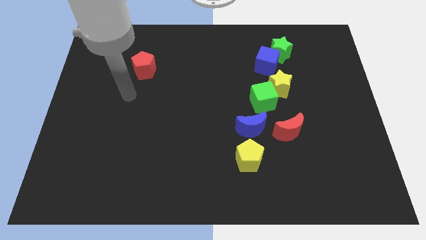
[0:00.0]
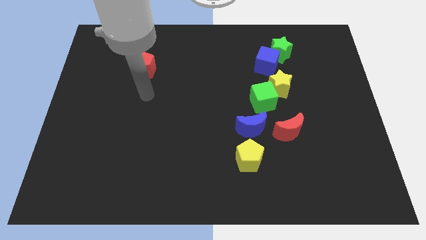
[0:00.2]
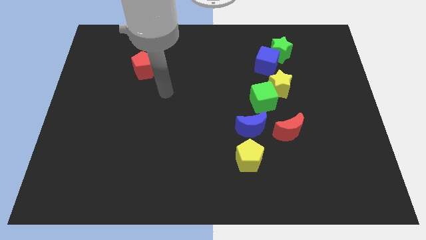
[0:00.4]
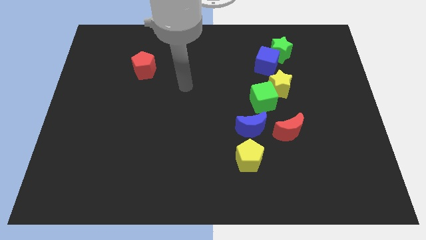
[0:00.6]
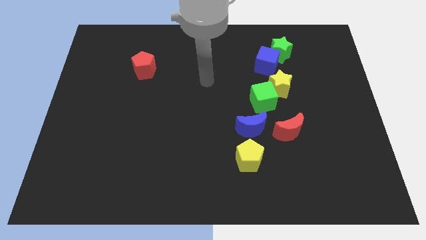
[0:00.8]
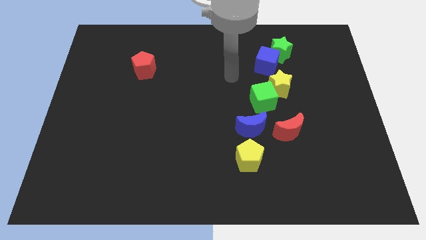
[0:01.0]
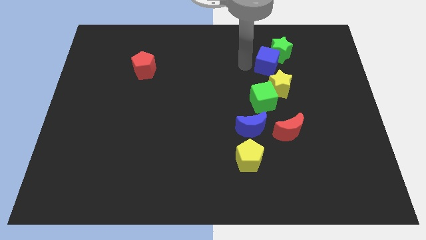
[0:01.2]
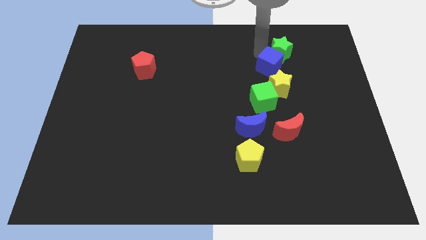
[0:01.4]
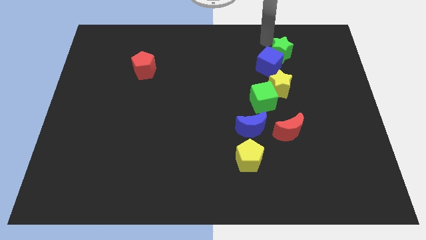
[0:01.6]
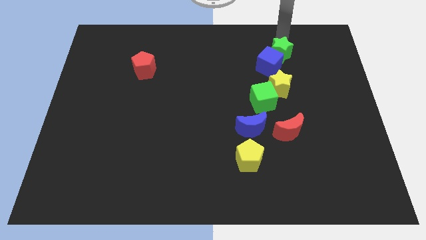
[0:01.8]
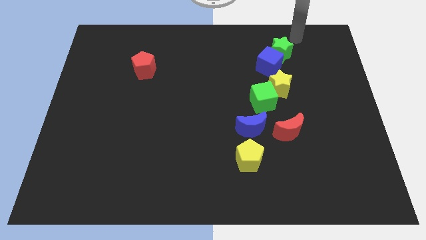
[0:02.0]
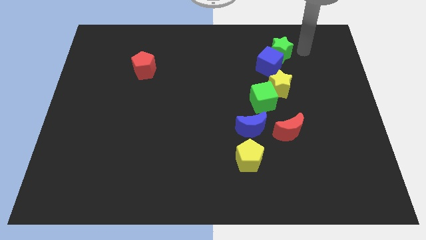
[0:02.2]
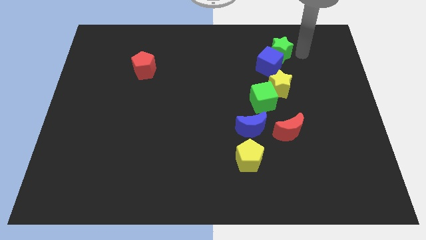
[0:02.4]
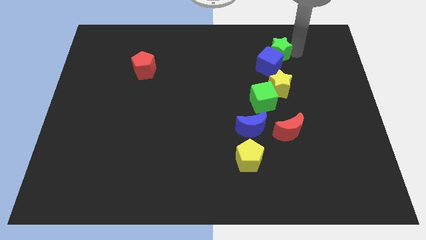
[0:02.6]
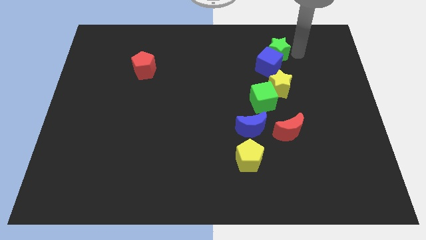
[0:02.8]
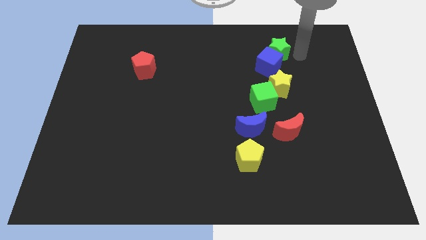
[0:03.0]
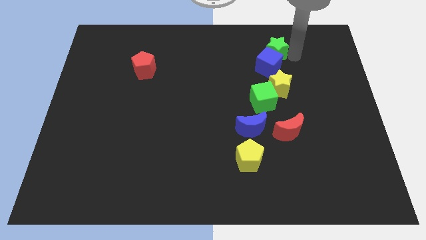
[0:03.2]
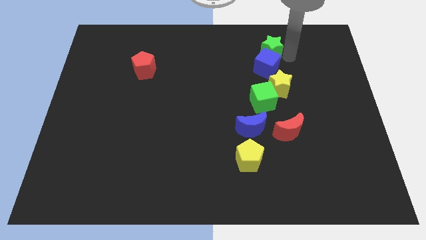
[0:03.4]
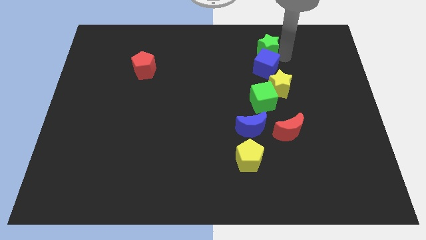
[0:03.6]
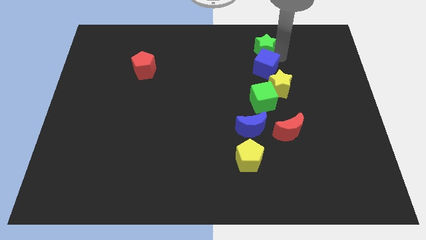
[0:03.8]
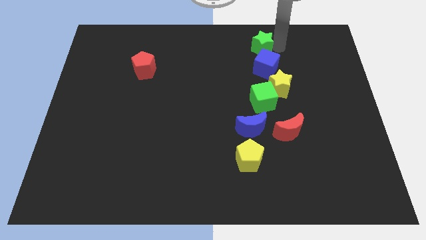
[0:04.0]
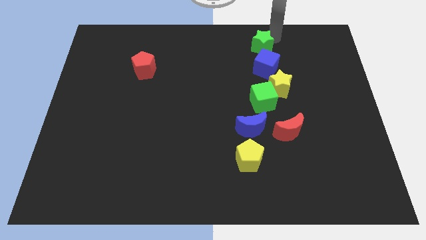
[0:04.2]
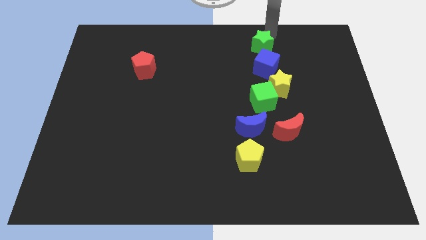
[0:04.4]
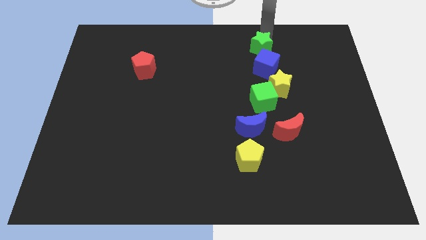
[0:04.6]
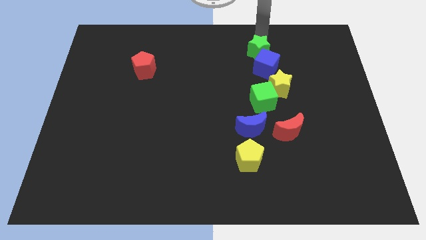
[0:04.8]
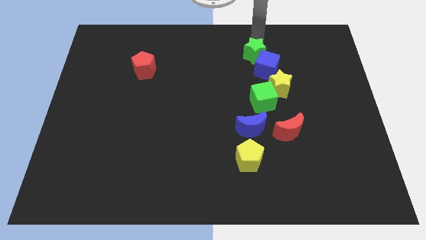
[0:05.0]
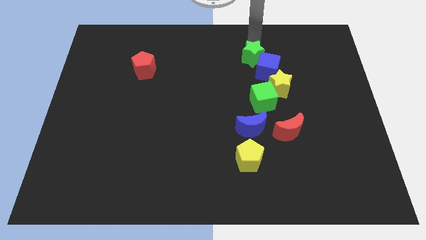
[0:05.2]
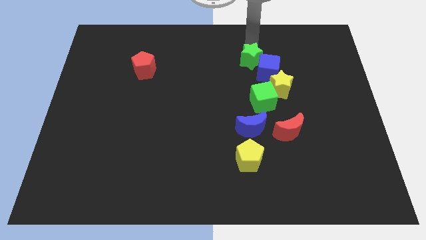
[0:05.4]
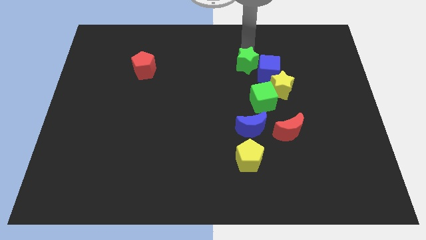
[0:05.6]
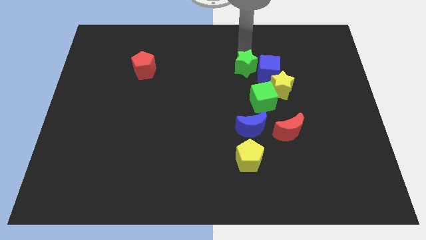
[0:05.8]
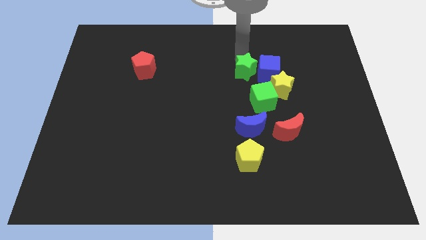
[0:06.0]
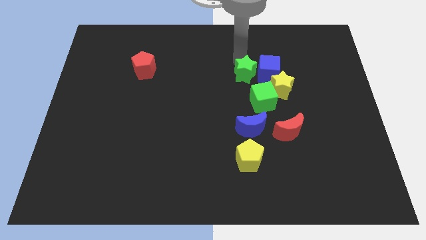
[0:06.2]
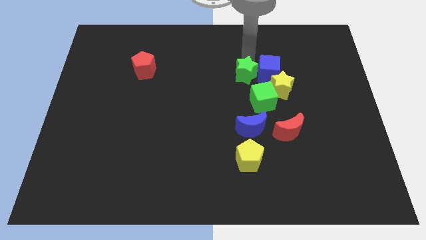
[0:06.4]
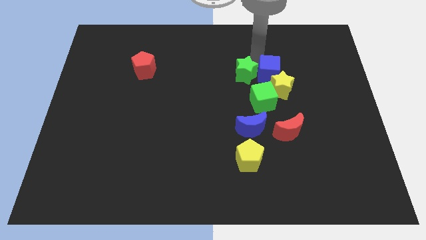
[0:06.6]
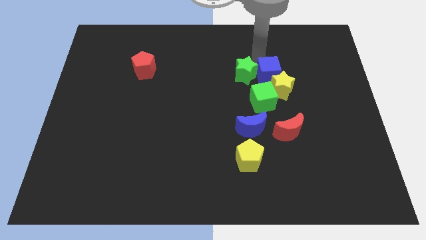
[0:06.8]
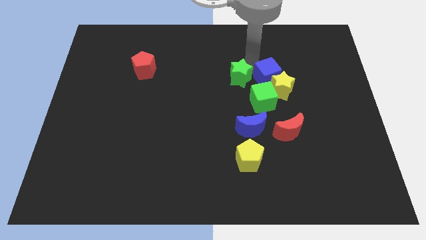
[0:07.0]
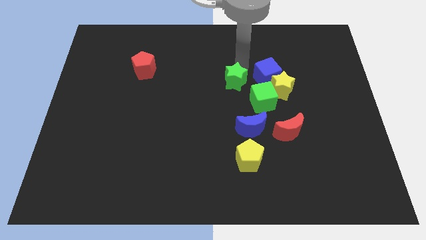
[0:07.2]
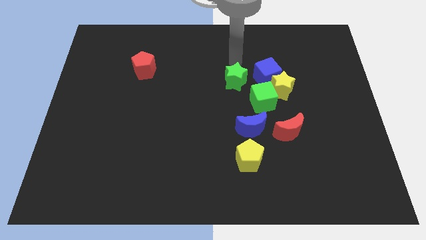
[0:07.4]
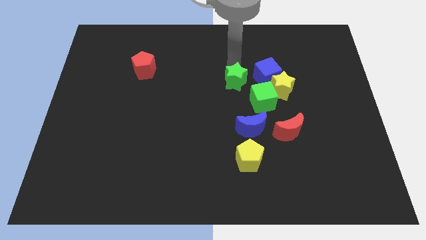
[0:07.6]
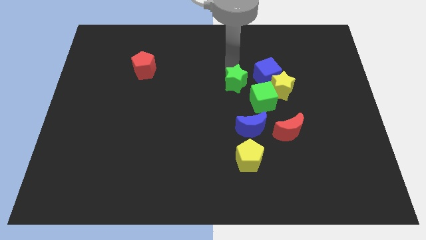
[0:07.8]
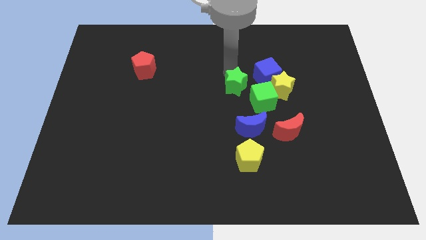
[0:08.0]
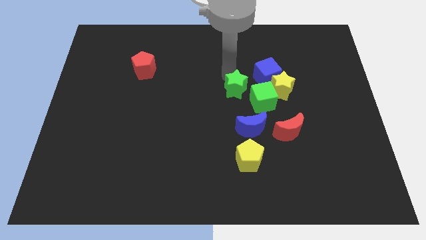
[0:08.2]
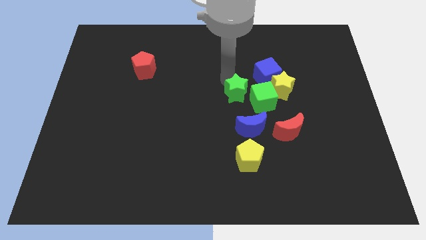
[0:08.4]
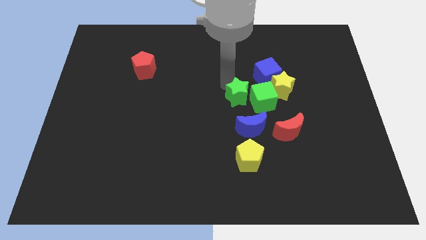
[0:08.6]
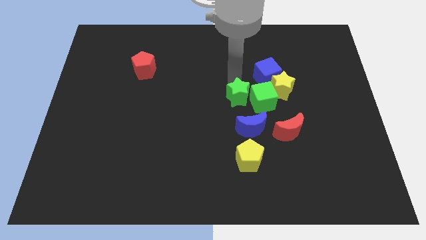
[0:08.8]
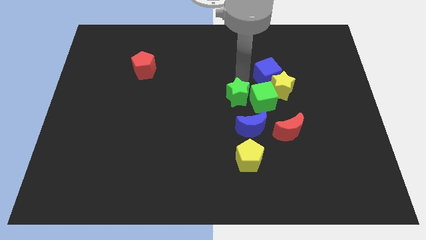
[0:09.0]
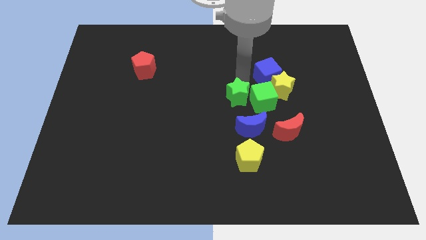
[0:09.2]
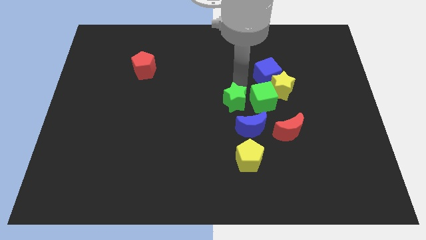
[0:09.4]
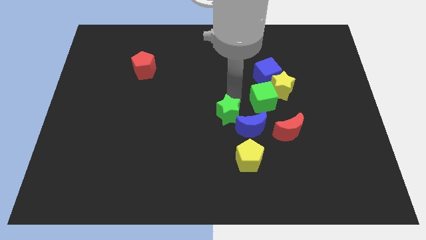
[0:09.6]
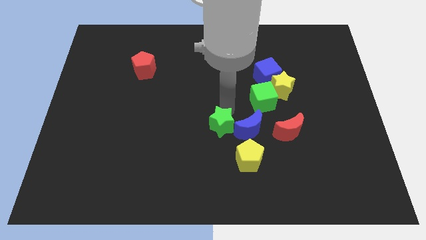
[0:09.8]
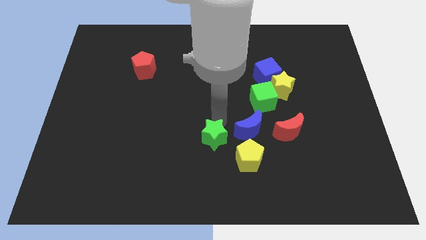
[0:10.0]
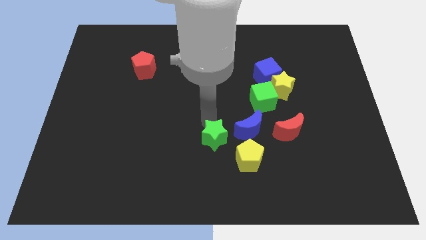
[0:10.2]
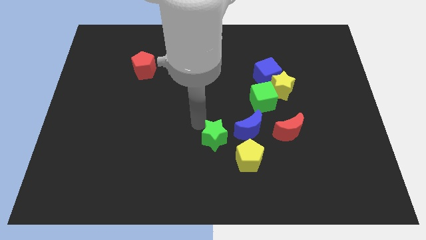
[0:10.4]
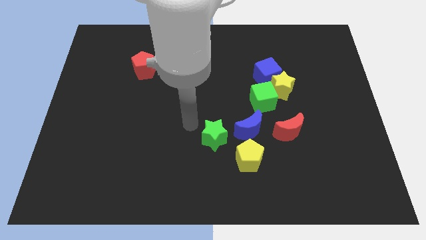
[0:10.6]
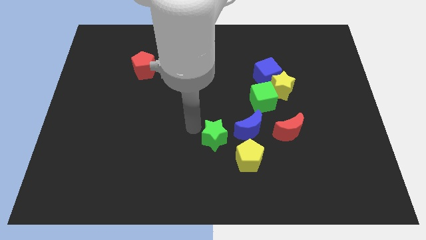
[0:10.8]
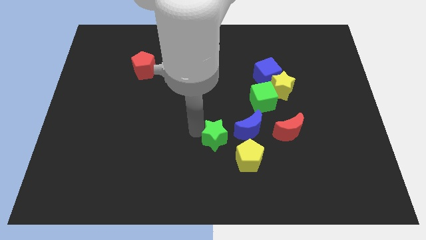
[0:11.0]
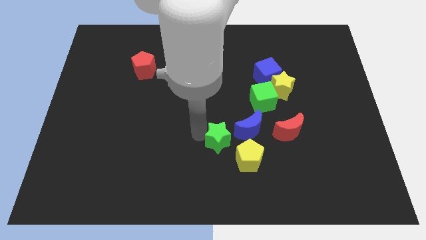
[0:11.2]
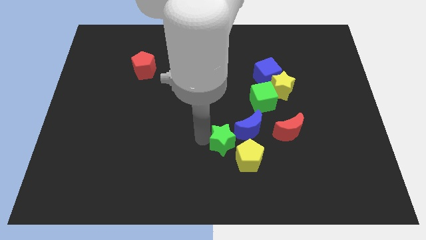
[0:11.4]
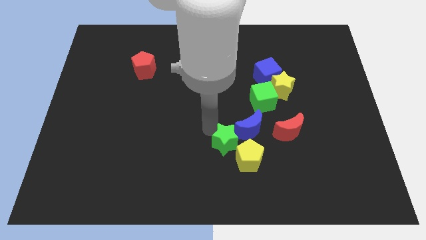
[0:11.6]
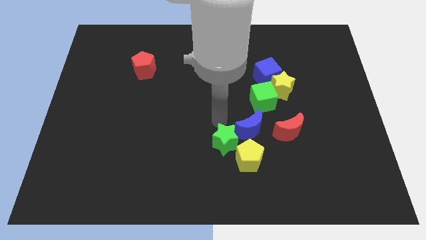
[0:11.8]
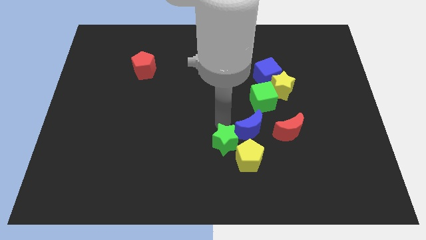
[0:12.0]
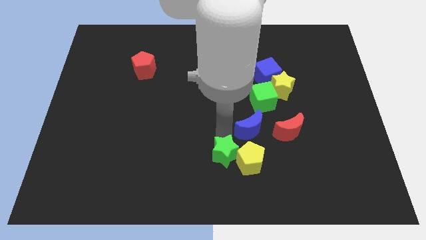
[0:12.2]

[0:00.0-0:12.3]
put the green star to the bottom

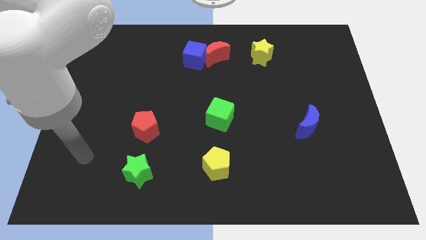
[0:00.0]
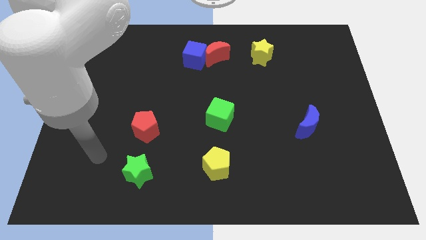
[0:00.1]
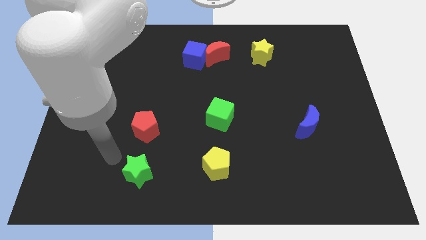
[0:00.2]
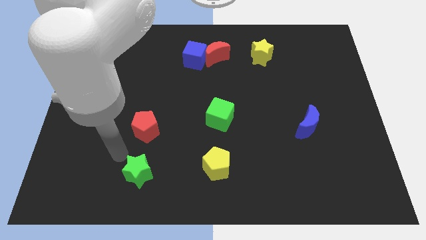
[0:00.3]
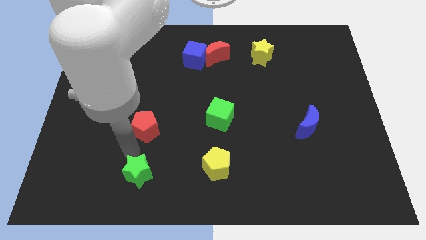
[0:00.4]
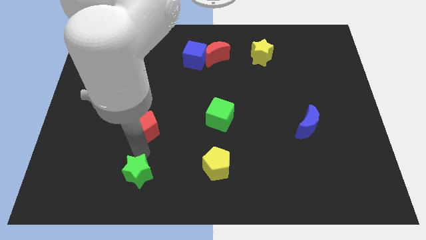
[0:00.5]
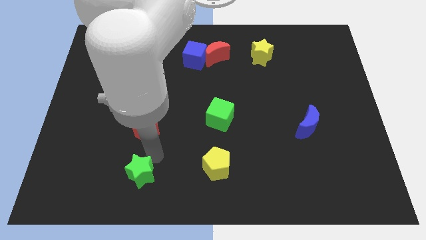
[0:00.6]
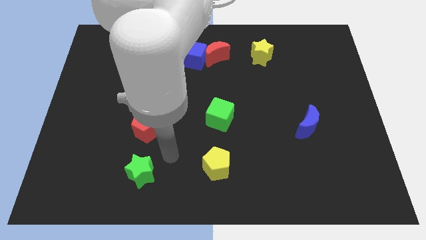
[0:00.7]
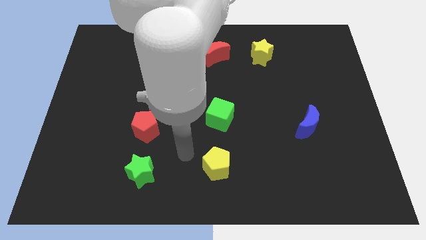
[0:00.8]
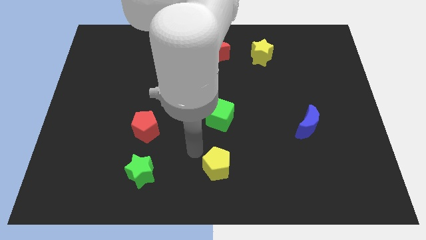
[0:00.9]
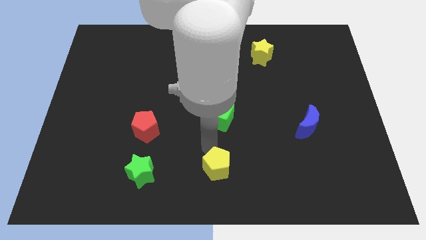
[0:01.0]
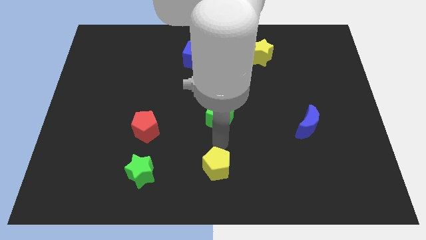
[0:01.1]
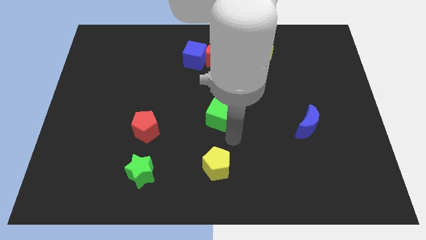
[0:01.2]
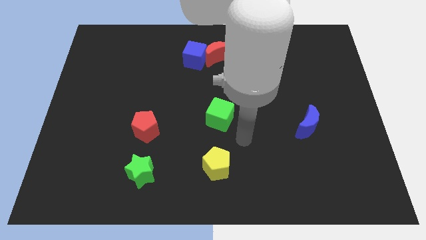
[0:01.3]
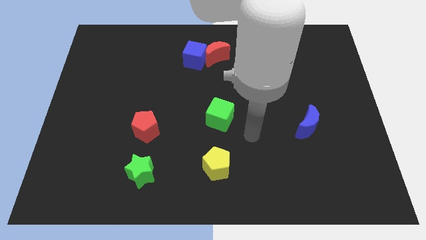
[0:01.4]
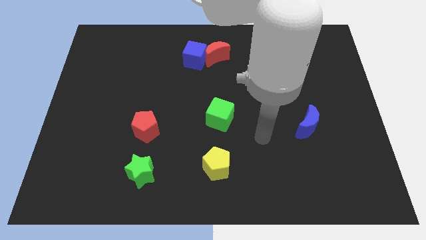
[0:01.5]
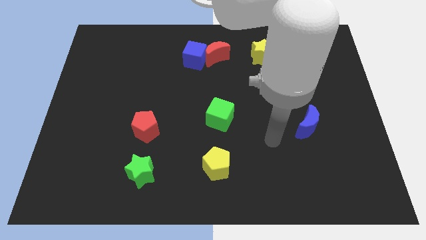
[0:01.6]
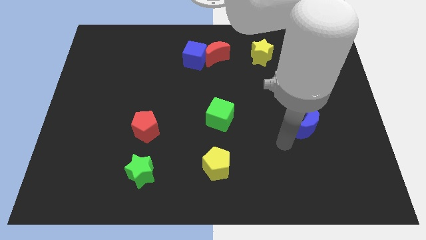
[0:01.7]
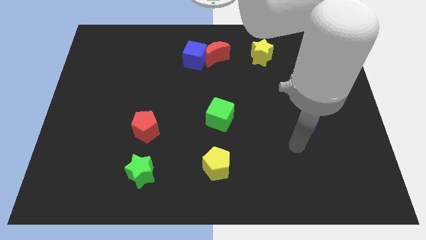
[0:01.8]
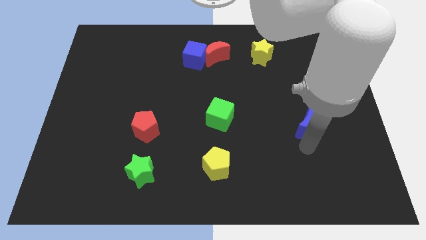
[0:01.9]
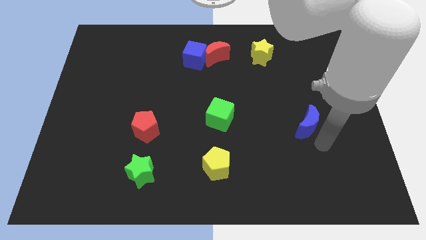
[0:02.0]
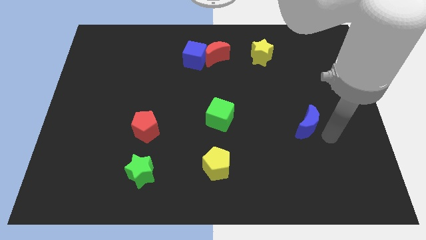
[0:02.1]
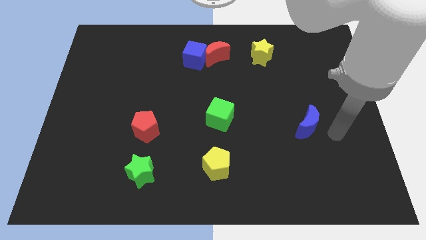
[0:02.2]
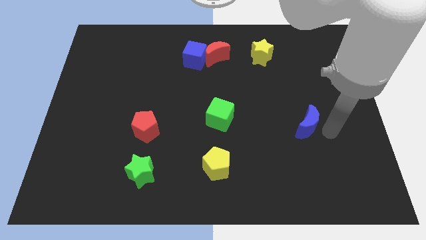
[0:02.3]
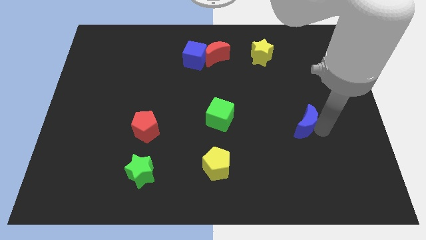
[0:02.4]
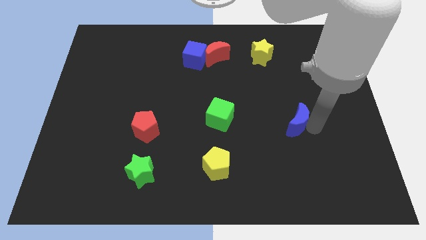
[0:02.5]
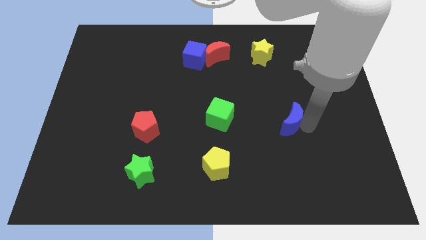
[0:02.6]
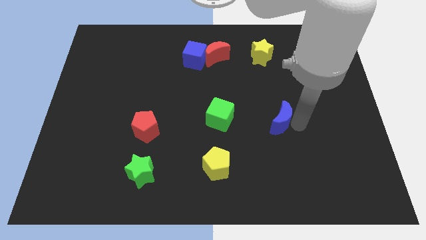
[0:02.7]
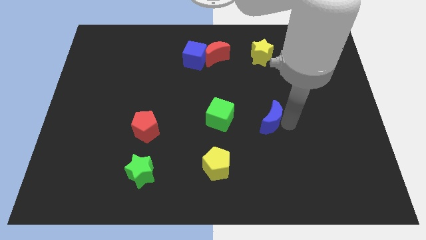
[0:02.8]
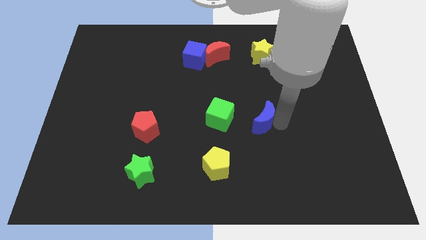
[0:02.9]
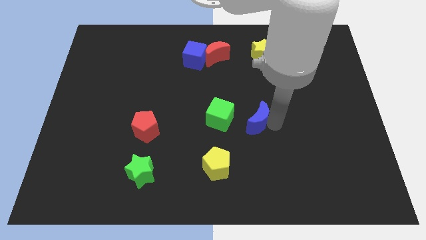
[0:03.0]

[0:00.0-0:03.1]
put the blue moon to the center of the board
